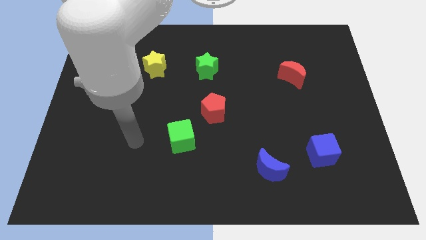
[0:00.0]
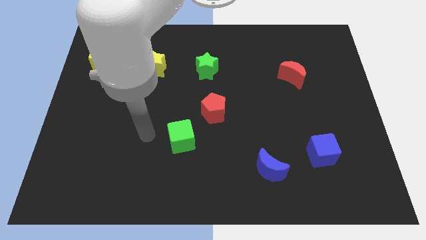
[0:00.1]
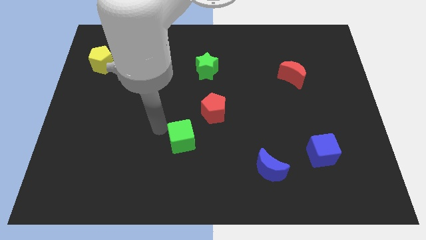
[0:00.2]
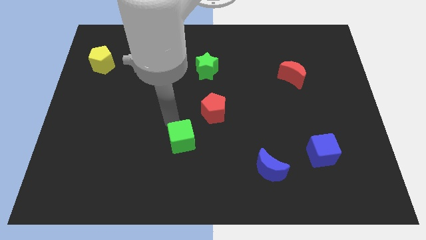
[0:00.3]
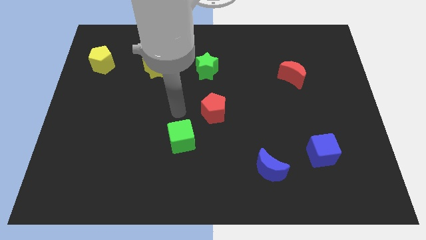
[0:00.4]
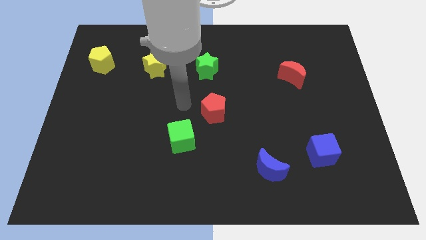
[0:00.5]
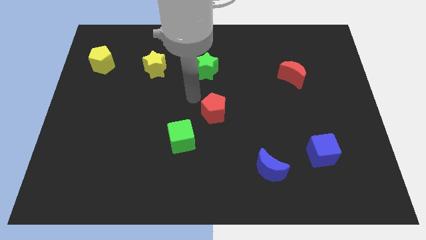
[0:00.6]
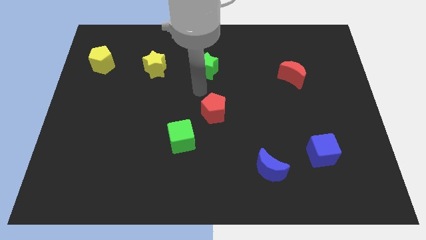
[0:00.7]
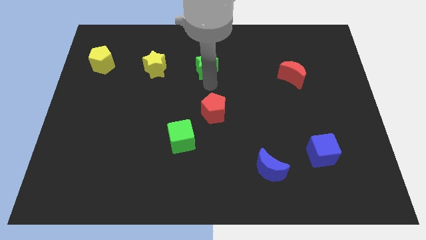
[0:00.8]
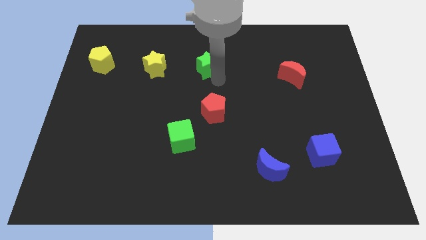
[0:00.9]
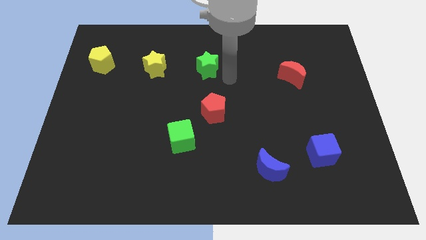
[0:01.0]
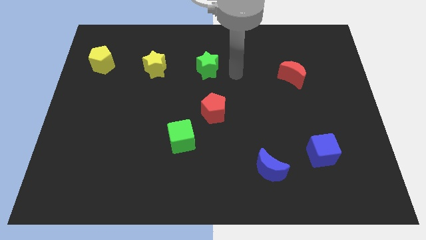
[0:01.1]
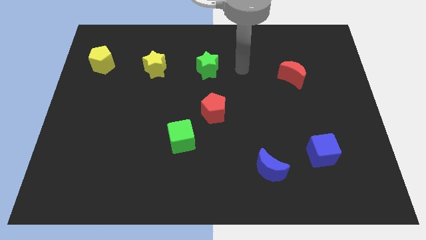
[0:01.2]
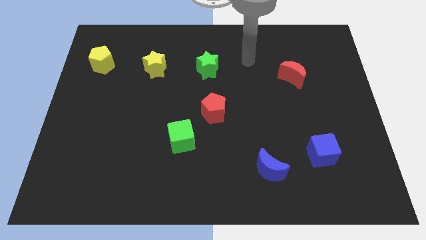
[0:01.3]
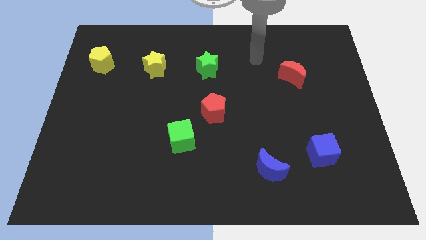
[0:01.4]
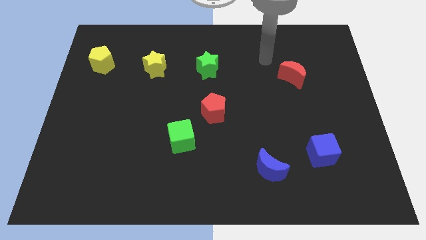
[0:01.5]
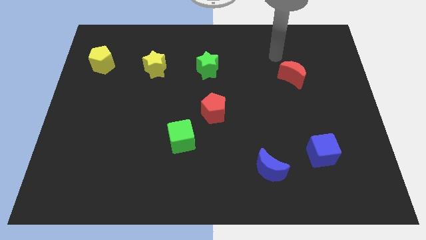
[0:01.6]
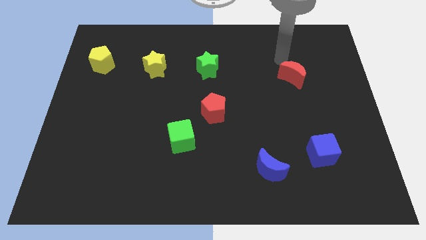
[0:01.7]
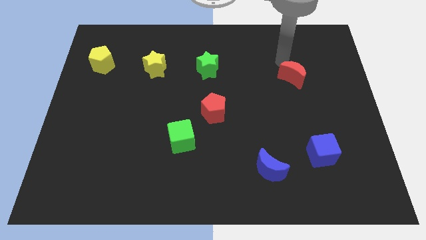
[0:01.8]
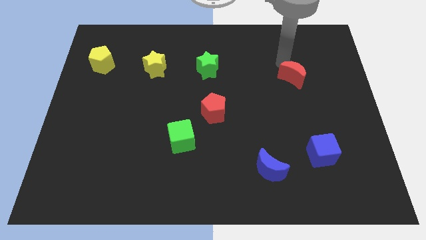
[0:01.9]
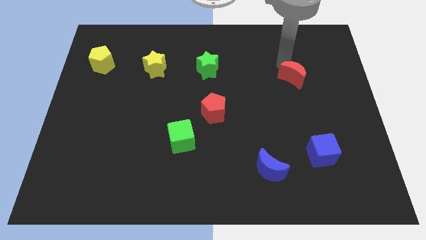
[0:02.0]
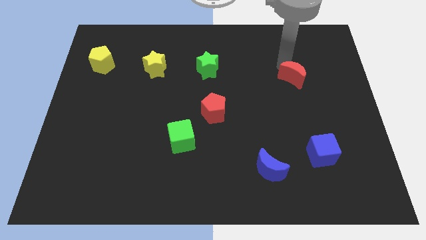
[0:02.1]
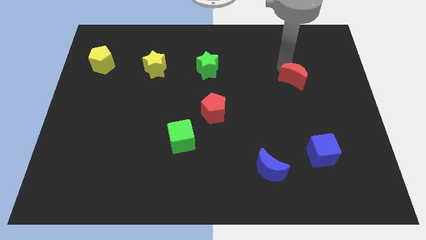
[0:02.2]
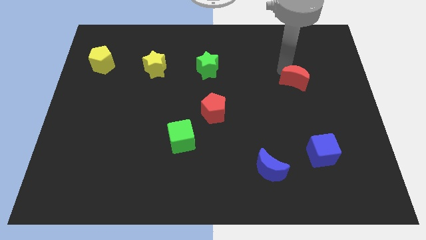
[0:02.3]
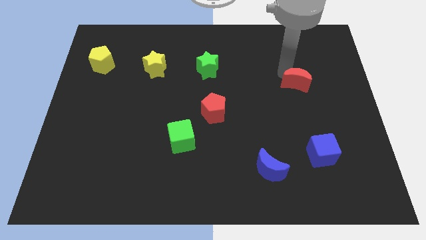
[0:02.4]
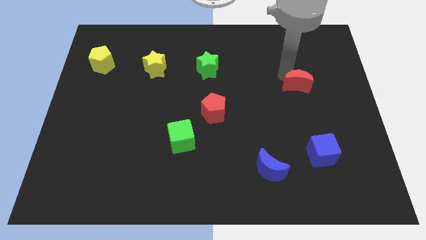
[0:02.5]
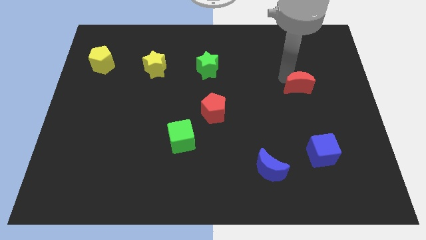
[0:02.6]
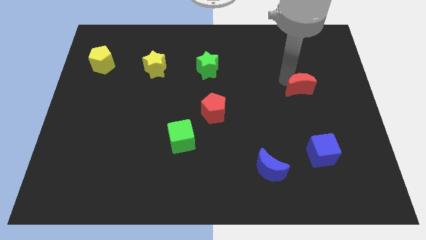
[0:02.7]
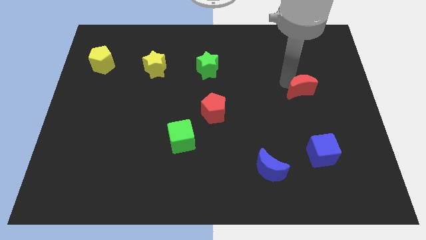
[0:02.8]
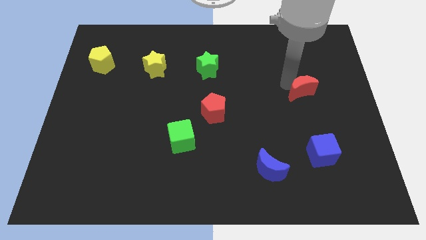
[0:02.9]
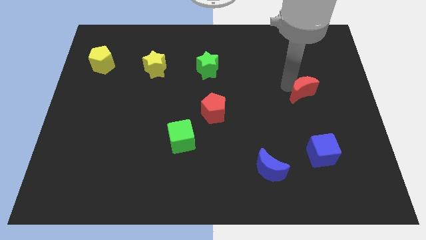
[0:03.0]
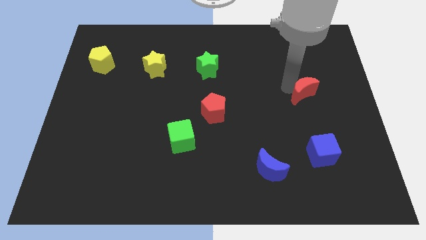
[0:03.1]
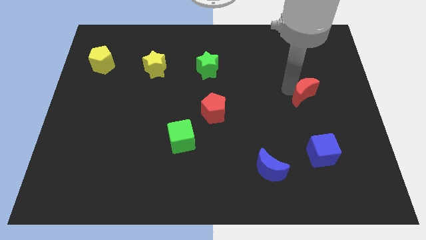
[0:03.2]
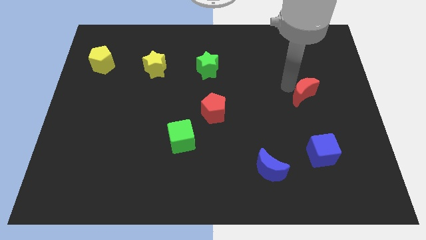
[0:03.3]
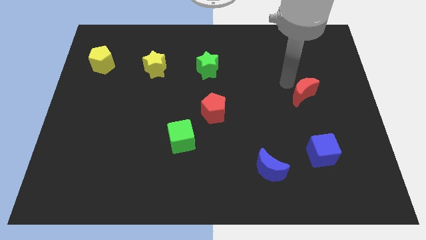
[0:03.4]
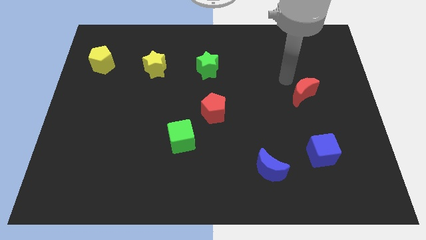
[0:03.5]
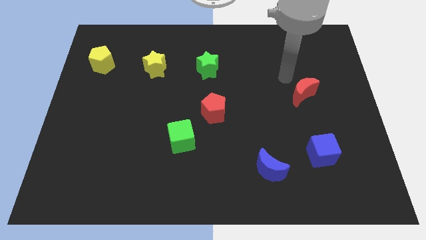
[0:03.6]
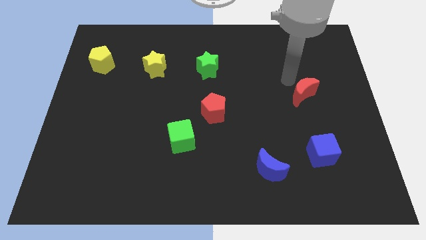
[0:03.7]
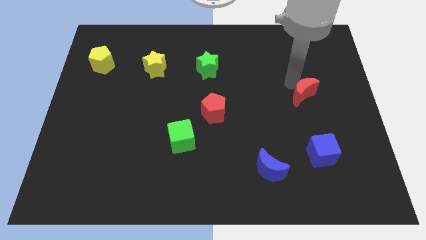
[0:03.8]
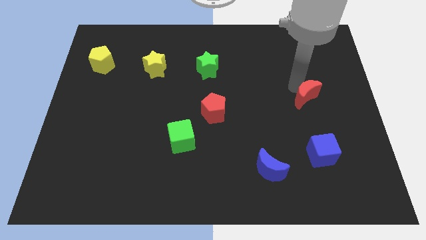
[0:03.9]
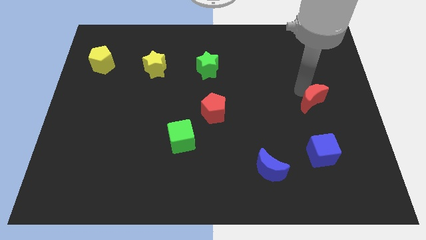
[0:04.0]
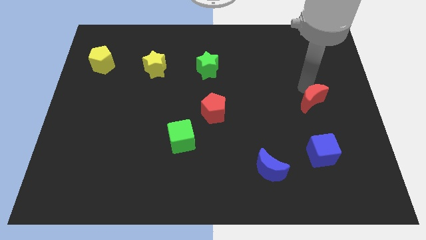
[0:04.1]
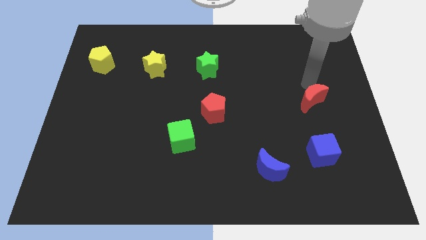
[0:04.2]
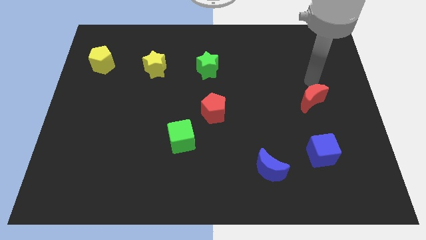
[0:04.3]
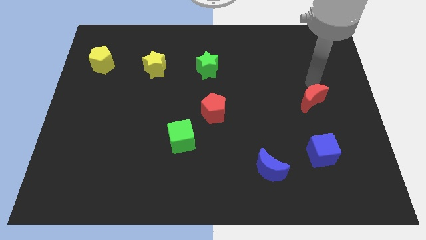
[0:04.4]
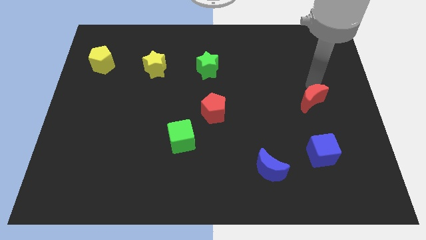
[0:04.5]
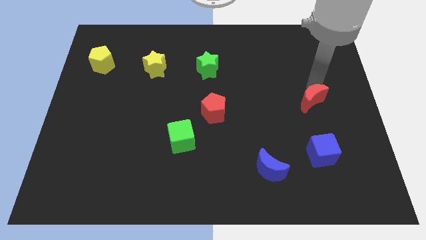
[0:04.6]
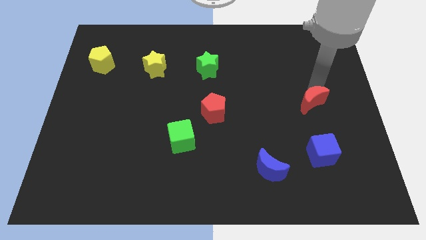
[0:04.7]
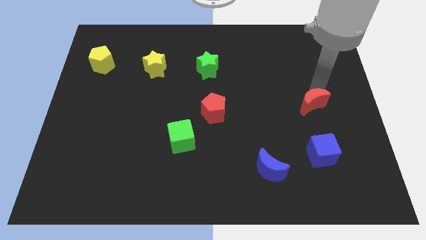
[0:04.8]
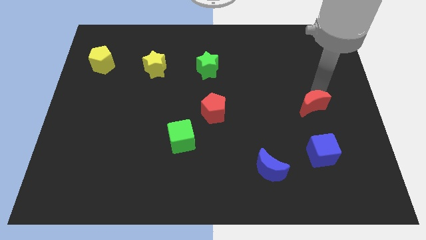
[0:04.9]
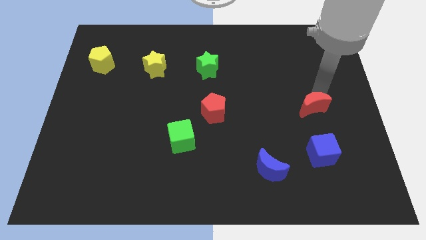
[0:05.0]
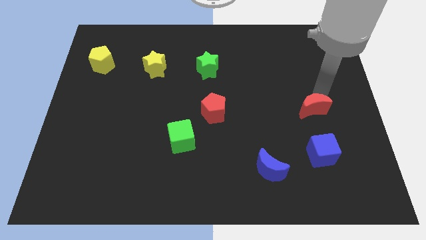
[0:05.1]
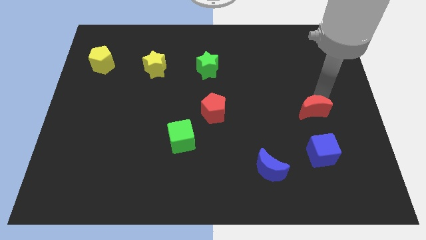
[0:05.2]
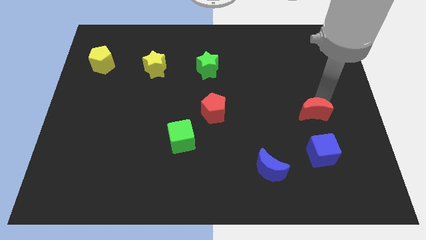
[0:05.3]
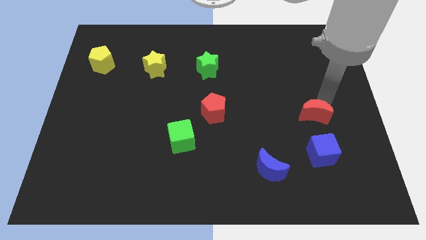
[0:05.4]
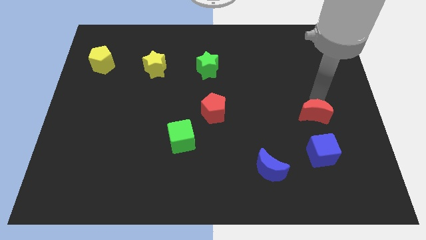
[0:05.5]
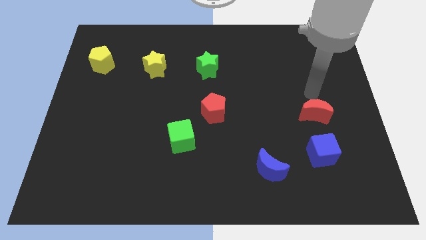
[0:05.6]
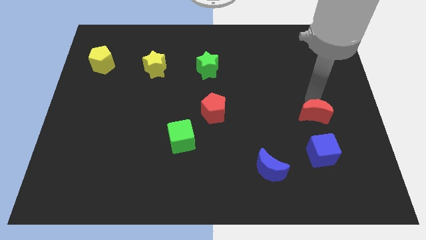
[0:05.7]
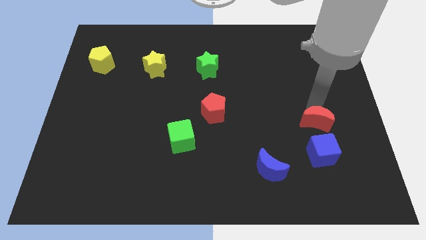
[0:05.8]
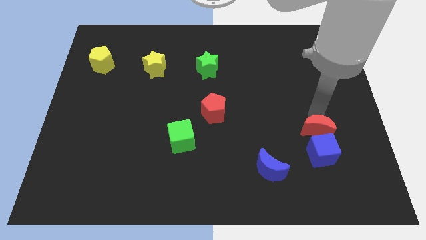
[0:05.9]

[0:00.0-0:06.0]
move the red moon next to the blue cube

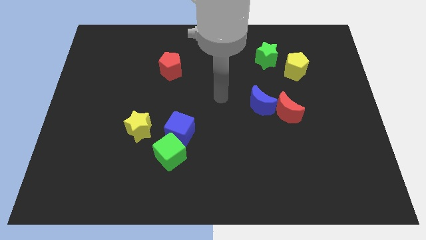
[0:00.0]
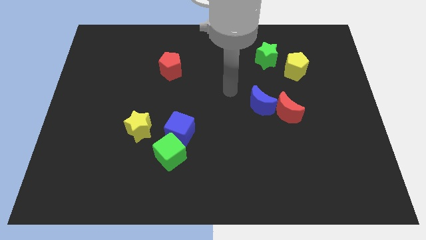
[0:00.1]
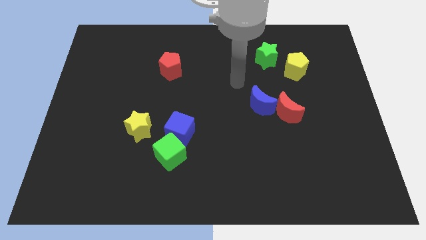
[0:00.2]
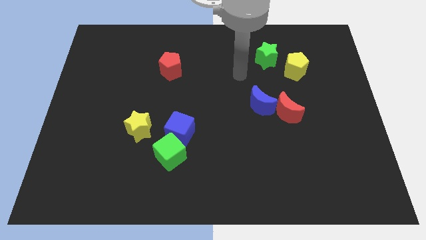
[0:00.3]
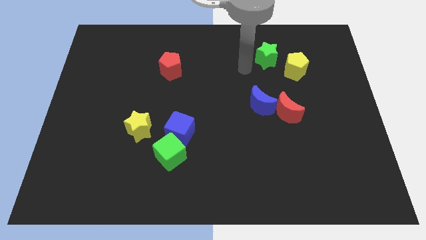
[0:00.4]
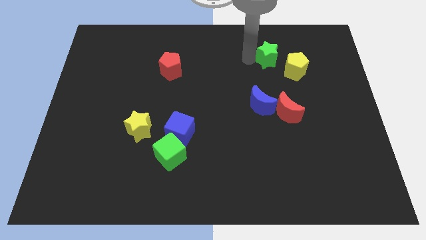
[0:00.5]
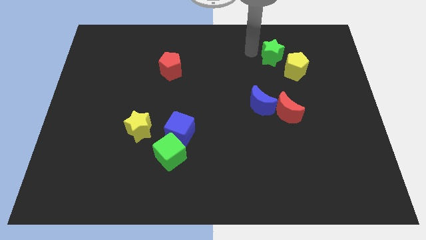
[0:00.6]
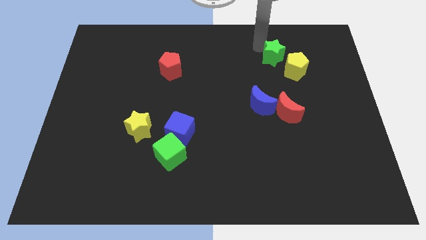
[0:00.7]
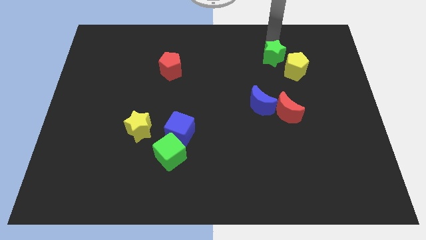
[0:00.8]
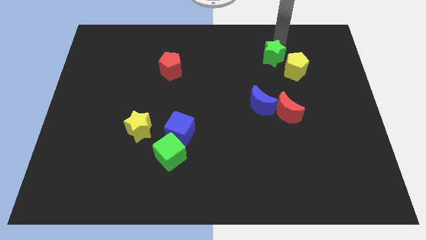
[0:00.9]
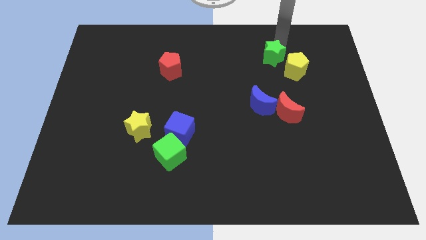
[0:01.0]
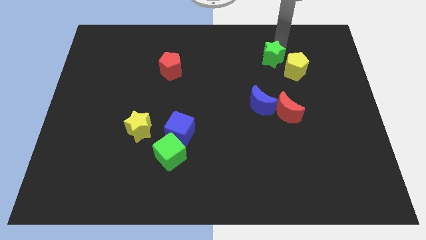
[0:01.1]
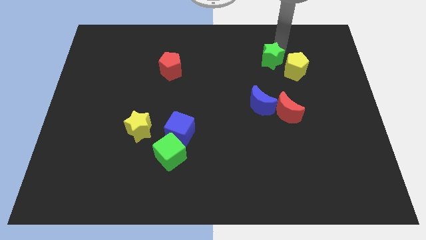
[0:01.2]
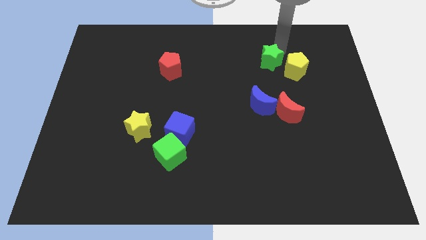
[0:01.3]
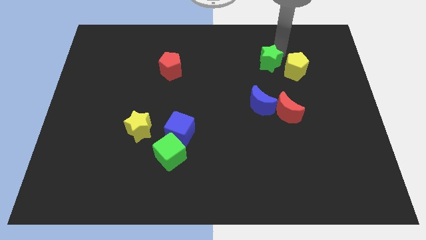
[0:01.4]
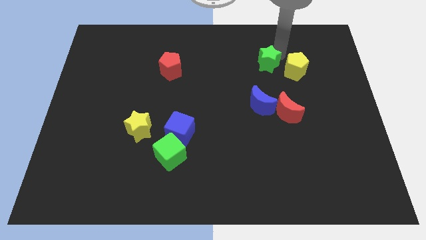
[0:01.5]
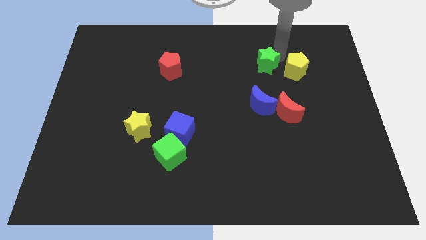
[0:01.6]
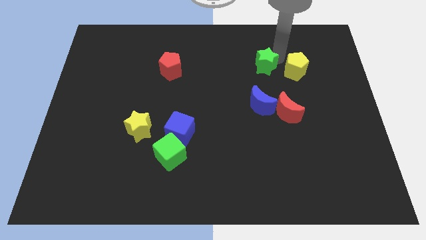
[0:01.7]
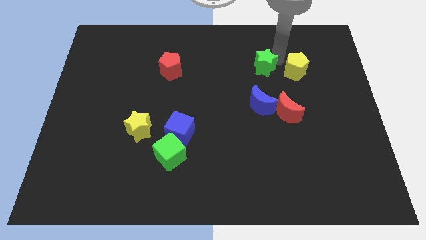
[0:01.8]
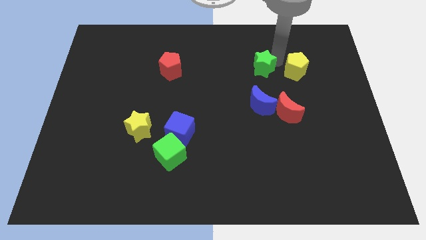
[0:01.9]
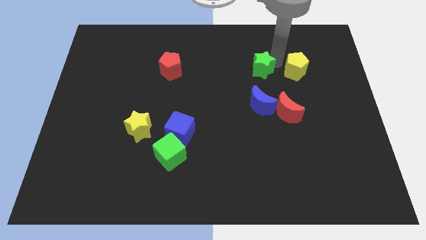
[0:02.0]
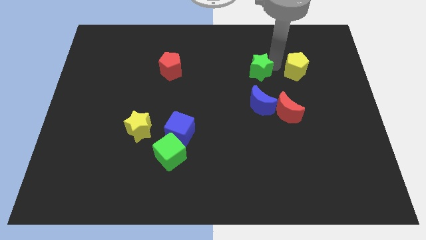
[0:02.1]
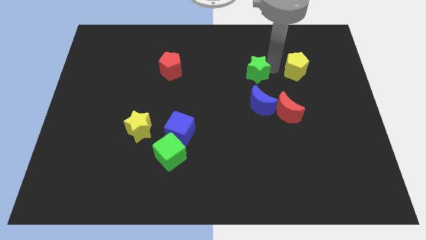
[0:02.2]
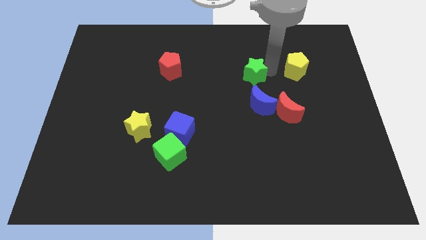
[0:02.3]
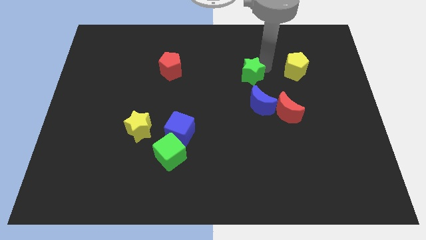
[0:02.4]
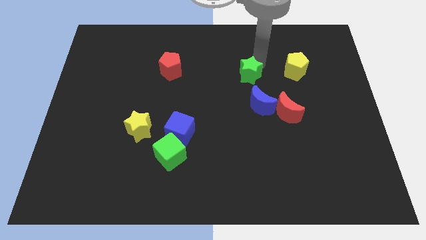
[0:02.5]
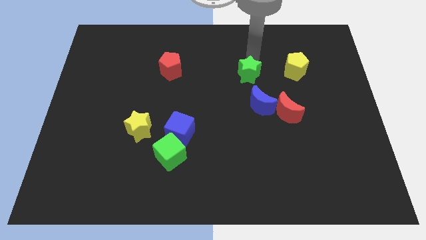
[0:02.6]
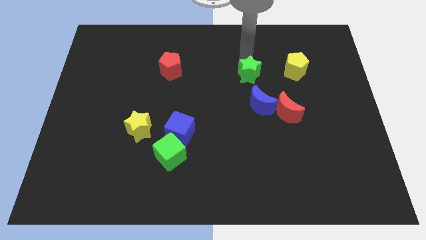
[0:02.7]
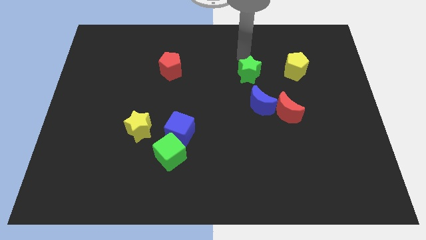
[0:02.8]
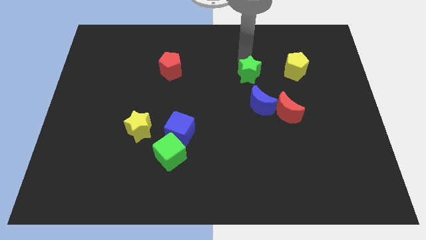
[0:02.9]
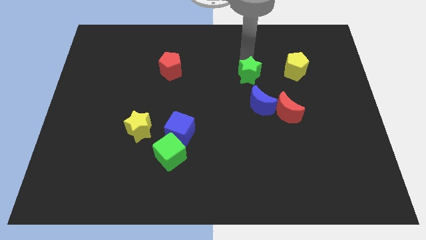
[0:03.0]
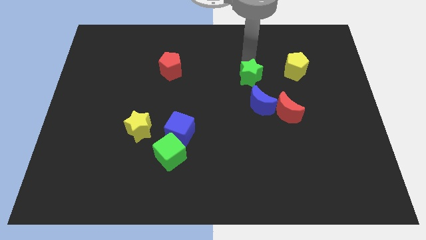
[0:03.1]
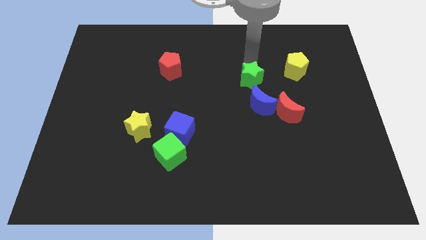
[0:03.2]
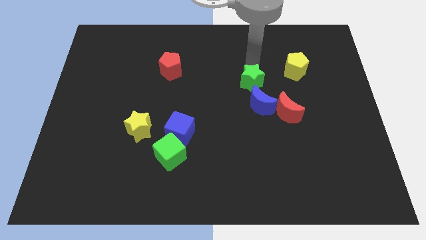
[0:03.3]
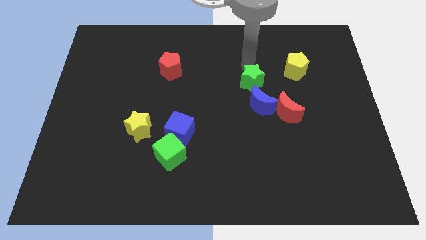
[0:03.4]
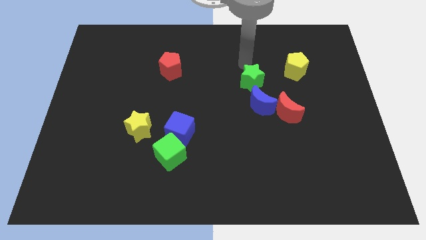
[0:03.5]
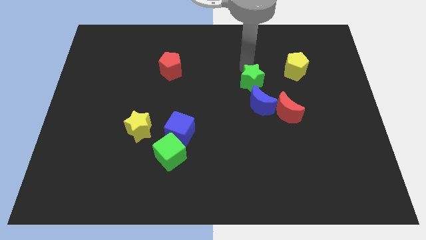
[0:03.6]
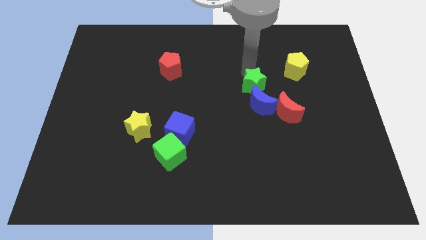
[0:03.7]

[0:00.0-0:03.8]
slide the green star next to the blue moon
